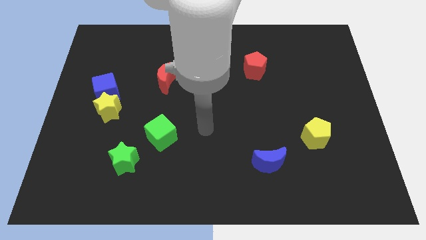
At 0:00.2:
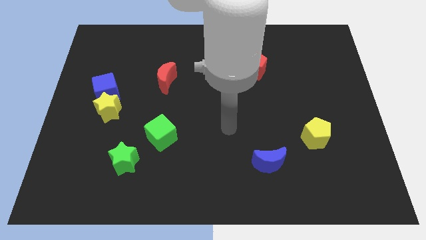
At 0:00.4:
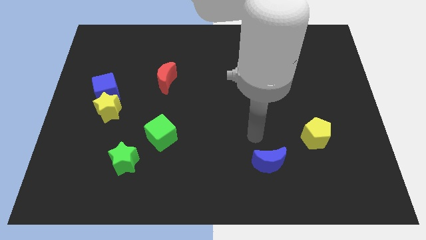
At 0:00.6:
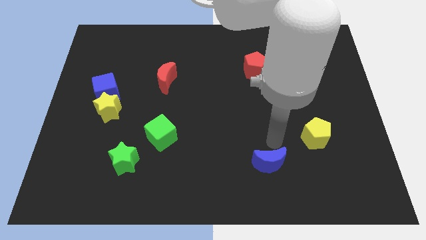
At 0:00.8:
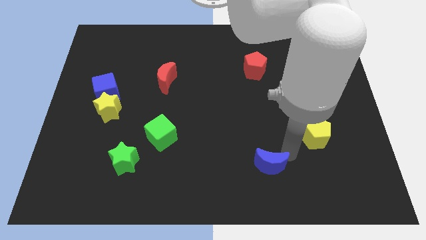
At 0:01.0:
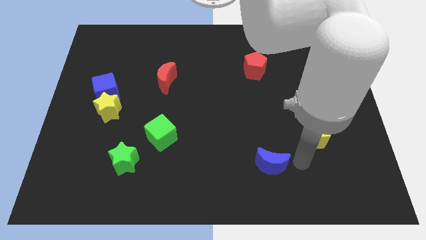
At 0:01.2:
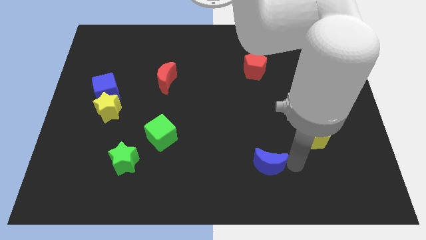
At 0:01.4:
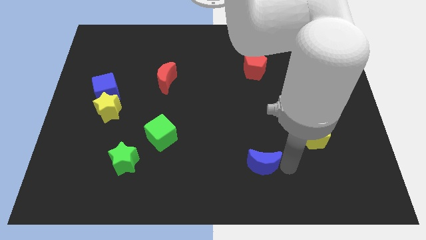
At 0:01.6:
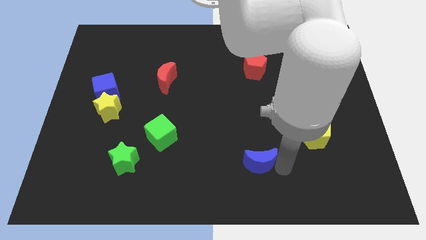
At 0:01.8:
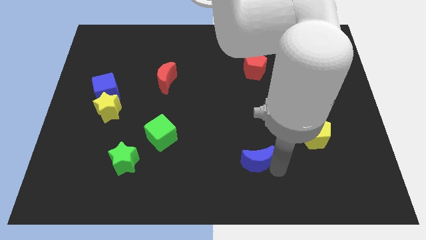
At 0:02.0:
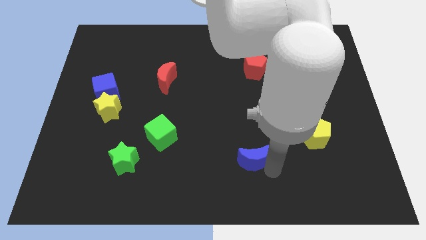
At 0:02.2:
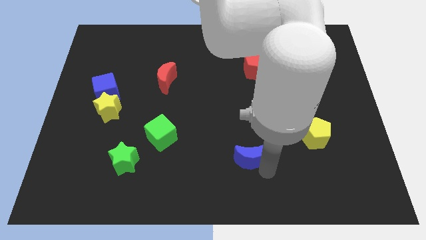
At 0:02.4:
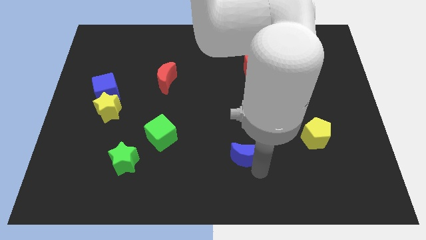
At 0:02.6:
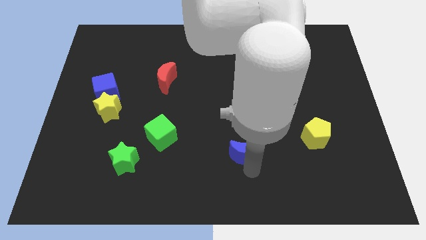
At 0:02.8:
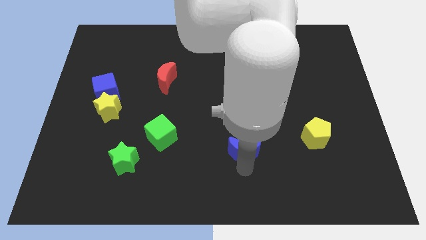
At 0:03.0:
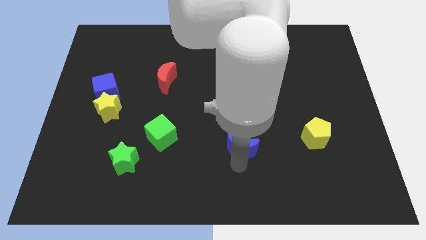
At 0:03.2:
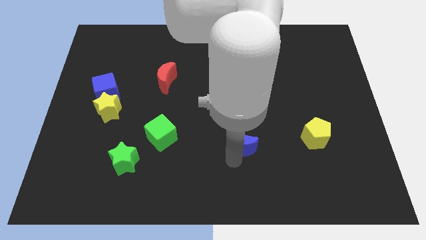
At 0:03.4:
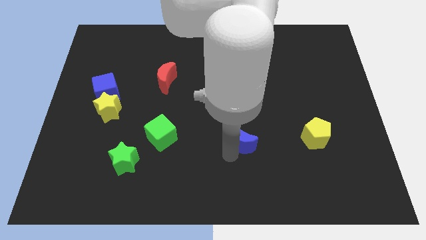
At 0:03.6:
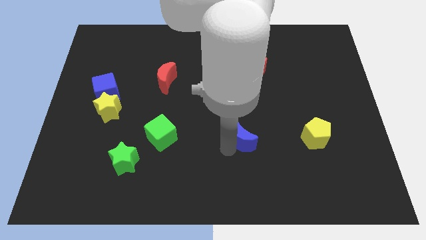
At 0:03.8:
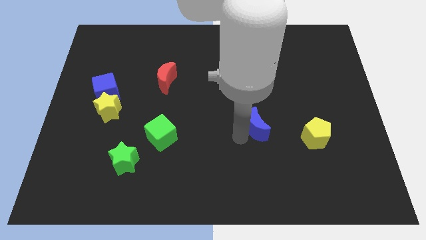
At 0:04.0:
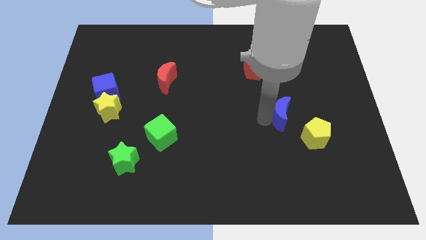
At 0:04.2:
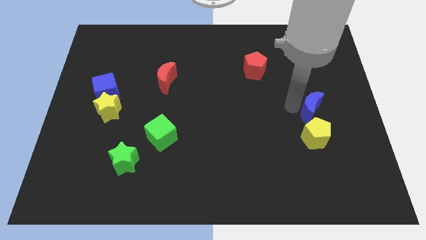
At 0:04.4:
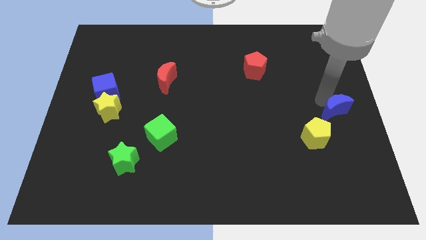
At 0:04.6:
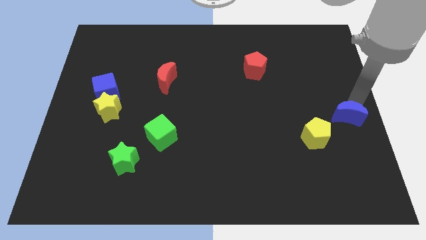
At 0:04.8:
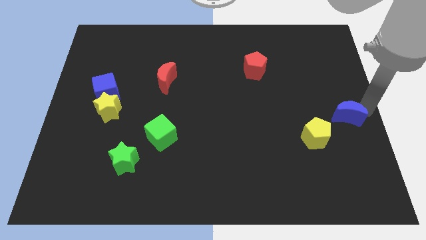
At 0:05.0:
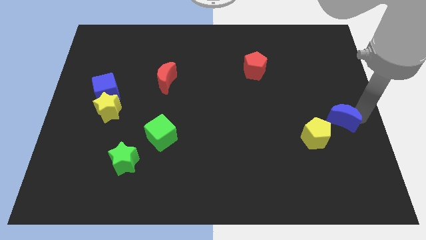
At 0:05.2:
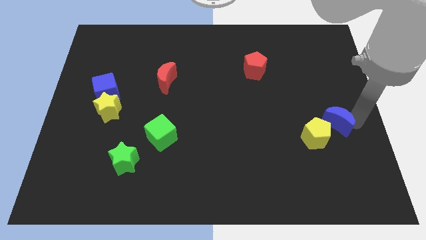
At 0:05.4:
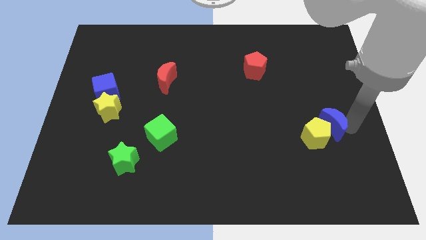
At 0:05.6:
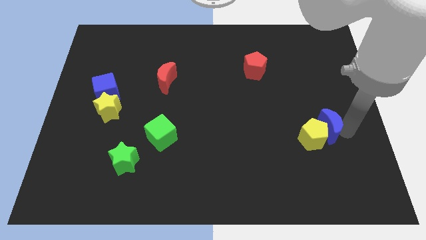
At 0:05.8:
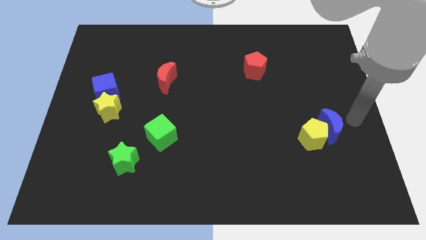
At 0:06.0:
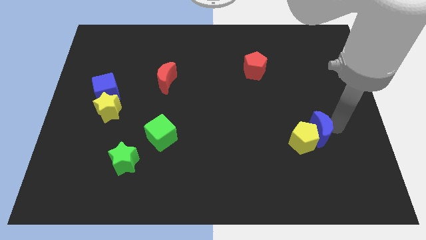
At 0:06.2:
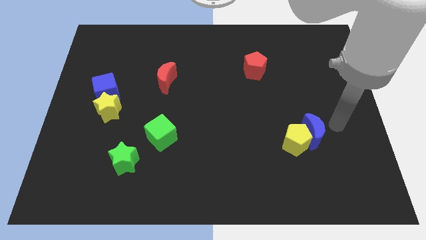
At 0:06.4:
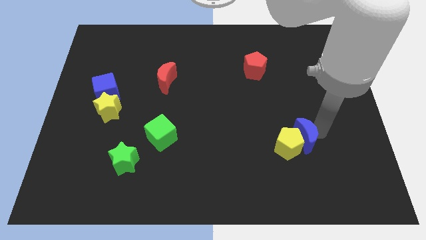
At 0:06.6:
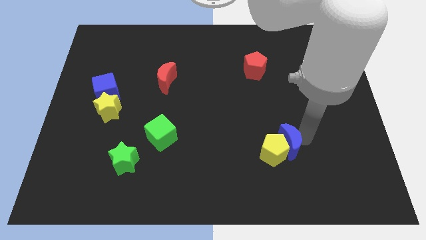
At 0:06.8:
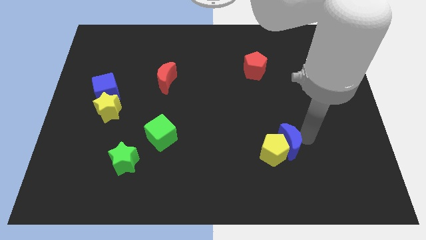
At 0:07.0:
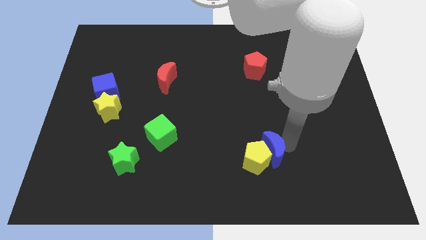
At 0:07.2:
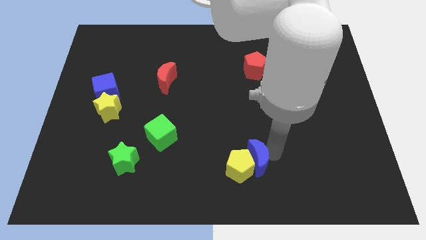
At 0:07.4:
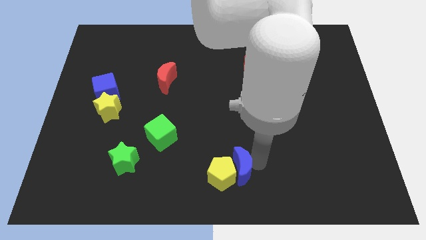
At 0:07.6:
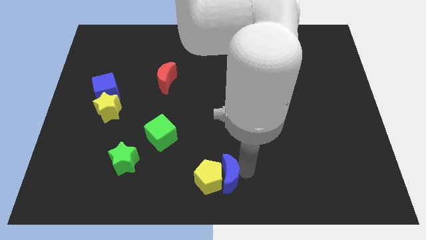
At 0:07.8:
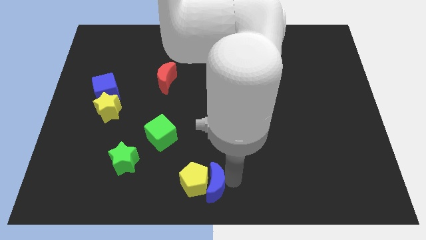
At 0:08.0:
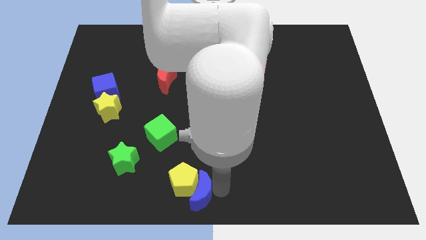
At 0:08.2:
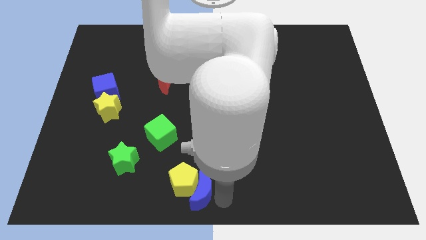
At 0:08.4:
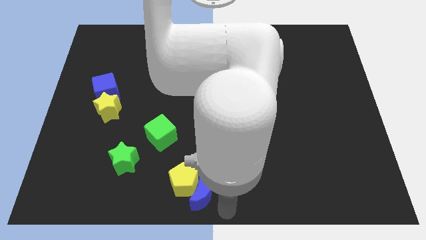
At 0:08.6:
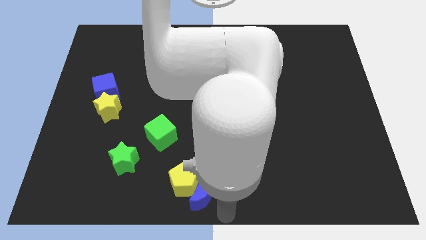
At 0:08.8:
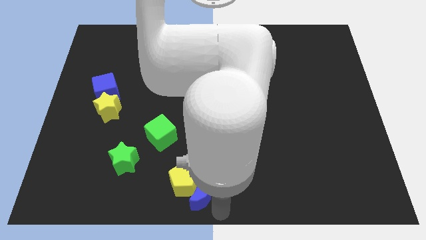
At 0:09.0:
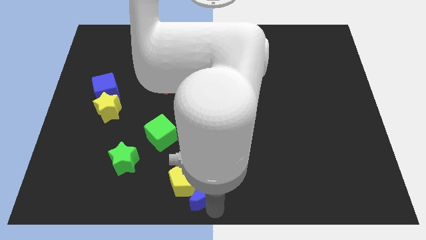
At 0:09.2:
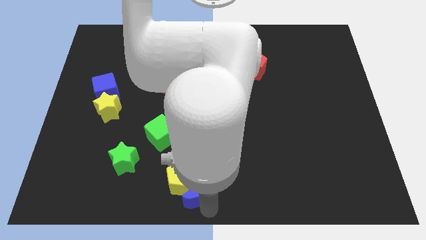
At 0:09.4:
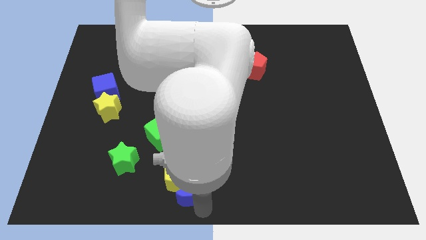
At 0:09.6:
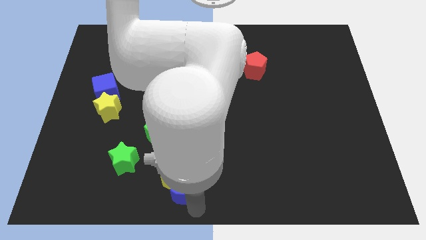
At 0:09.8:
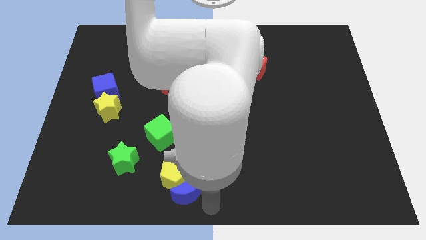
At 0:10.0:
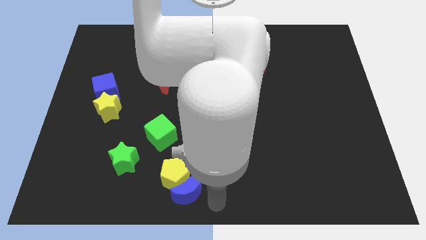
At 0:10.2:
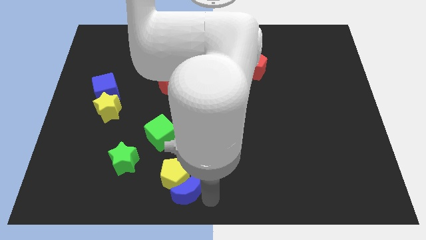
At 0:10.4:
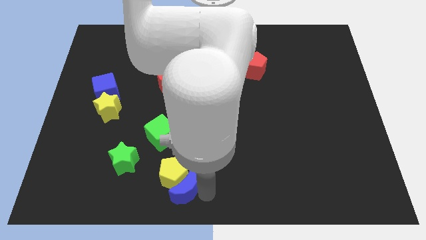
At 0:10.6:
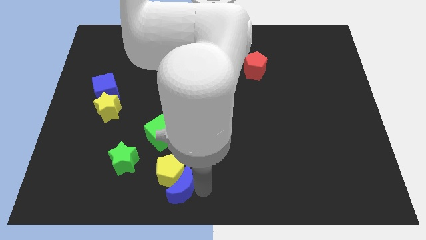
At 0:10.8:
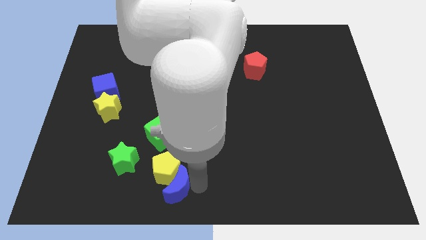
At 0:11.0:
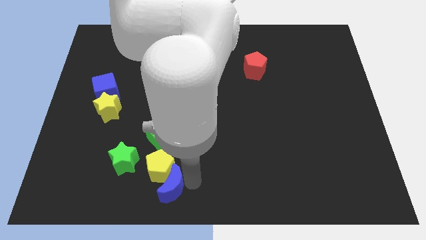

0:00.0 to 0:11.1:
put the blue moon to the bottom right of the green star

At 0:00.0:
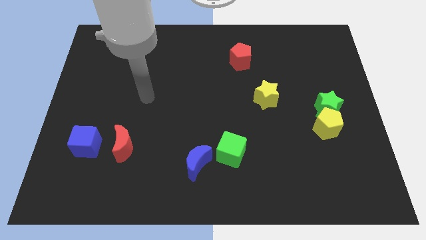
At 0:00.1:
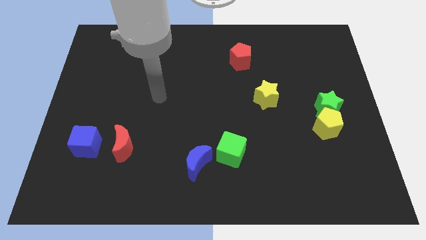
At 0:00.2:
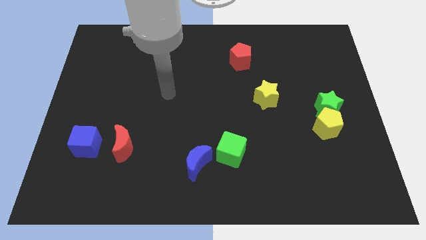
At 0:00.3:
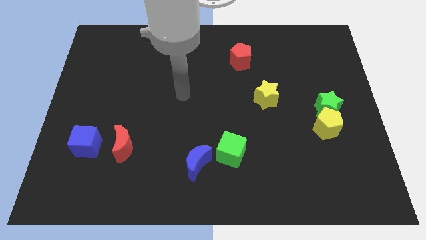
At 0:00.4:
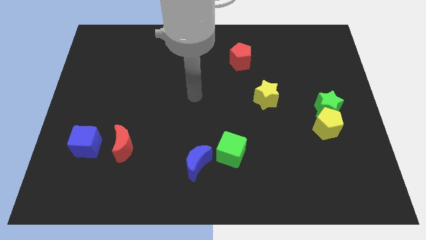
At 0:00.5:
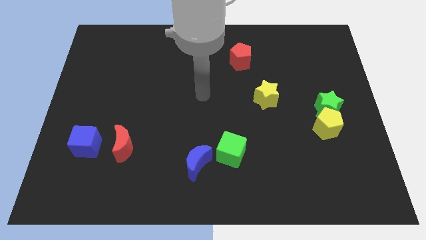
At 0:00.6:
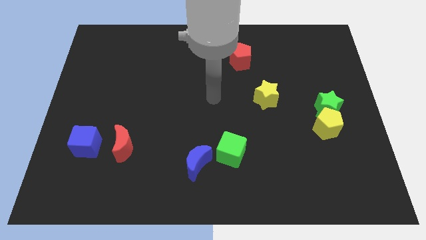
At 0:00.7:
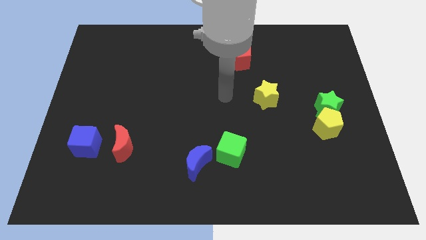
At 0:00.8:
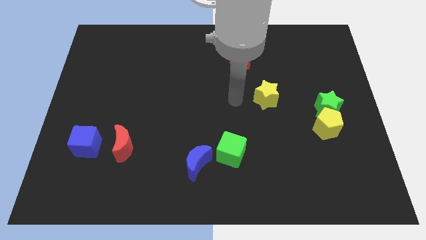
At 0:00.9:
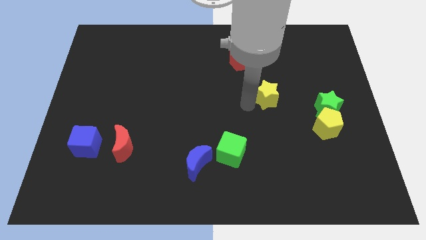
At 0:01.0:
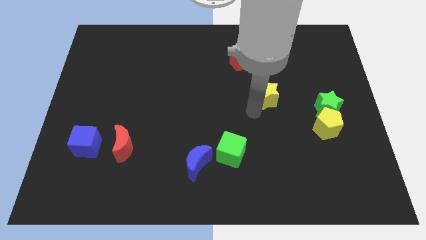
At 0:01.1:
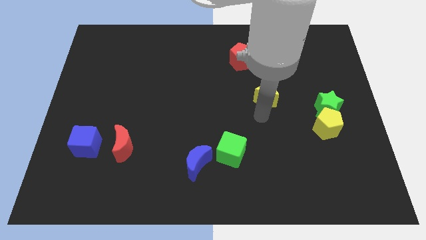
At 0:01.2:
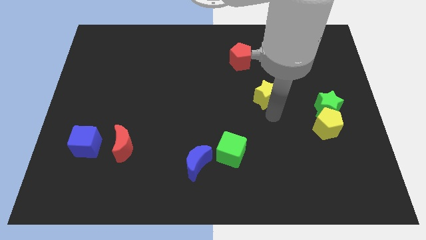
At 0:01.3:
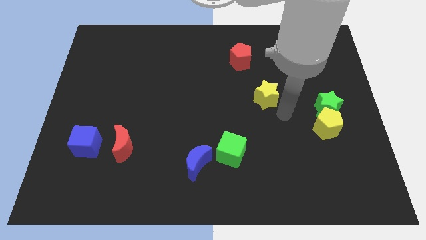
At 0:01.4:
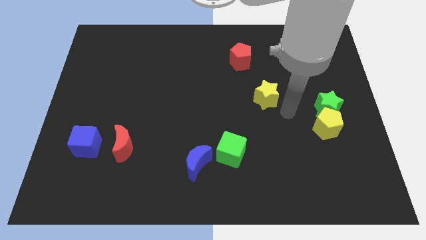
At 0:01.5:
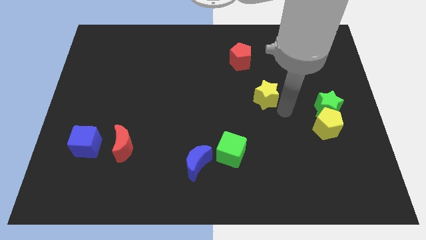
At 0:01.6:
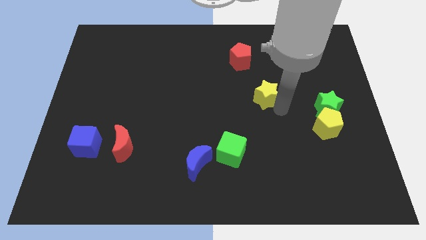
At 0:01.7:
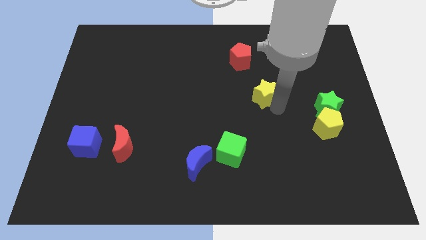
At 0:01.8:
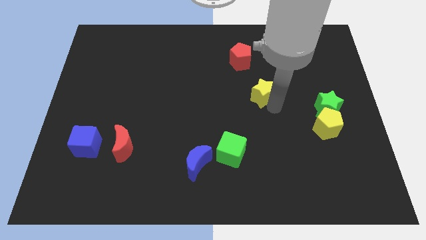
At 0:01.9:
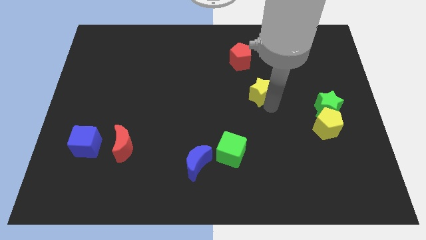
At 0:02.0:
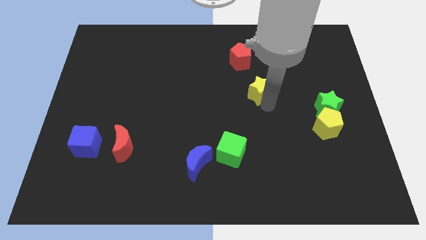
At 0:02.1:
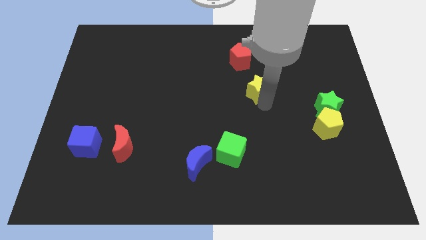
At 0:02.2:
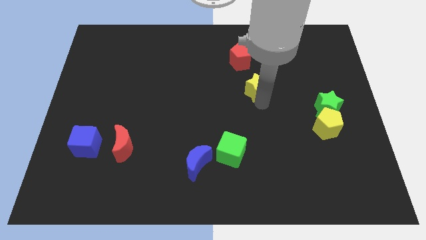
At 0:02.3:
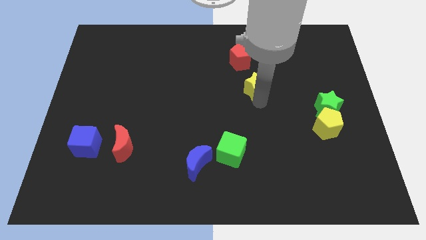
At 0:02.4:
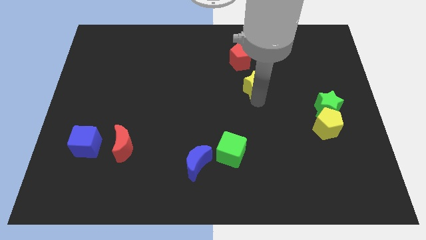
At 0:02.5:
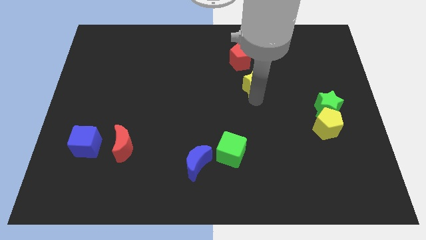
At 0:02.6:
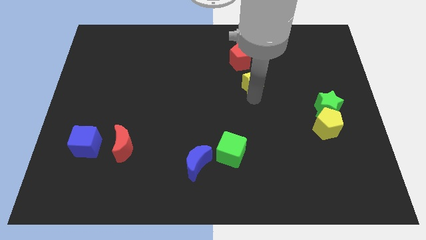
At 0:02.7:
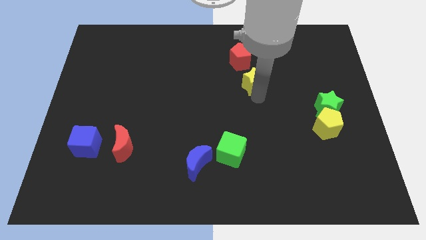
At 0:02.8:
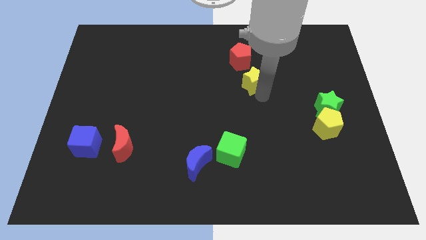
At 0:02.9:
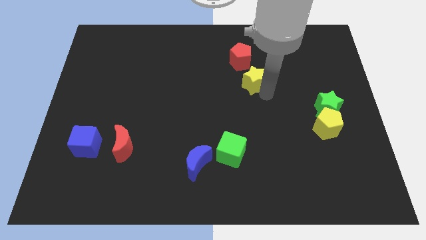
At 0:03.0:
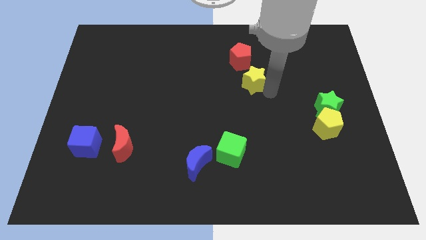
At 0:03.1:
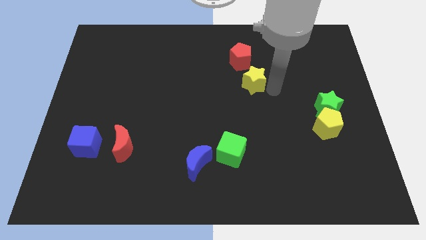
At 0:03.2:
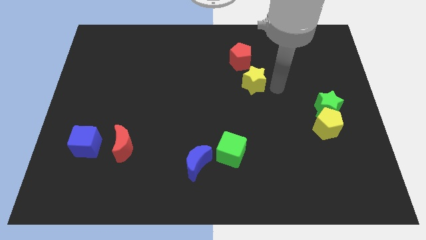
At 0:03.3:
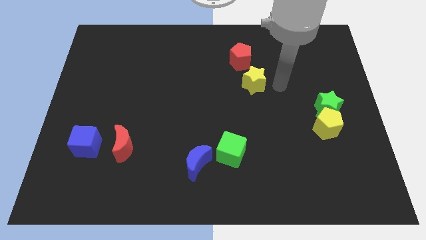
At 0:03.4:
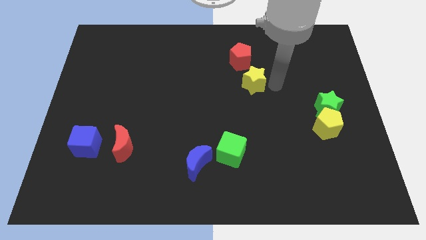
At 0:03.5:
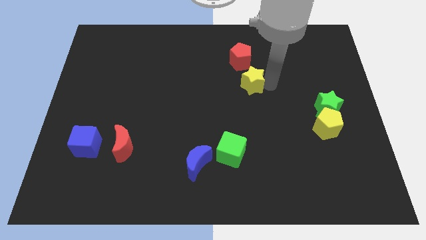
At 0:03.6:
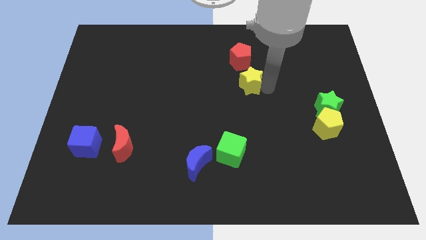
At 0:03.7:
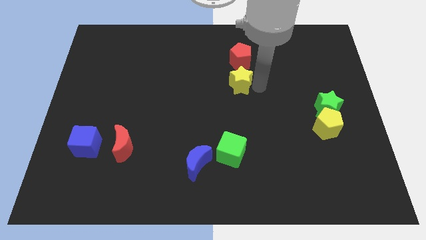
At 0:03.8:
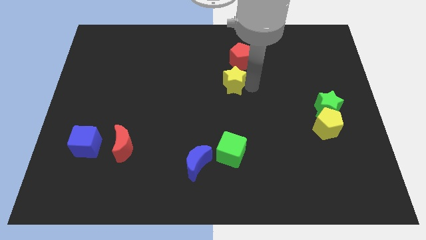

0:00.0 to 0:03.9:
move the yellow star to the bottom left side of the red pentagon
